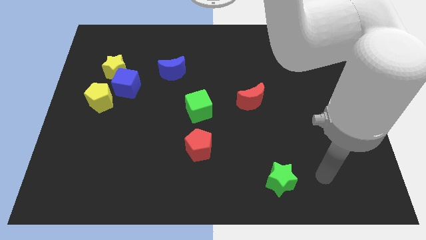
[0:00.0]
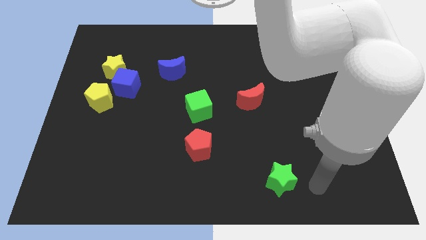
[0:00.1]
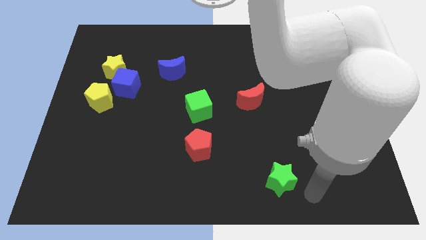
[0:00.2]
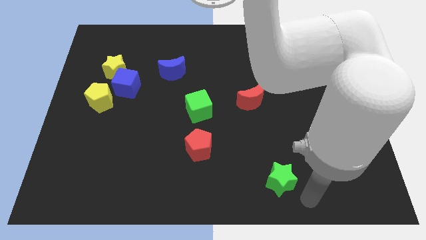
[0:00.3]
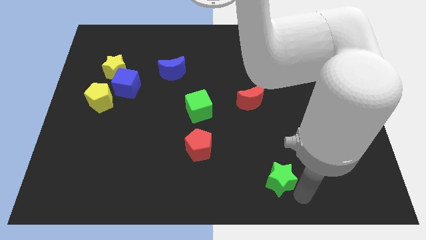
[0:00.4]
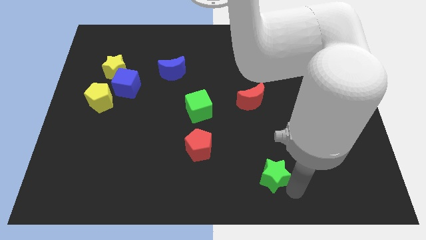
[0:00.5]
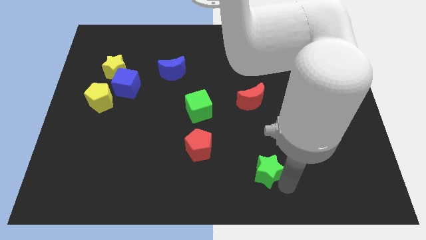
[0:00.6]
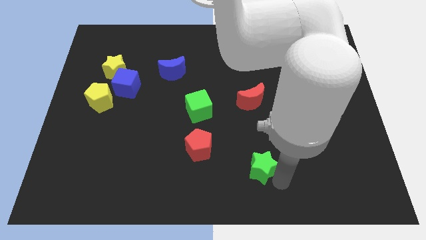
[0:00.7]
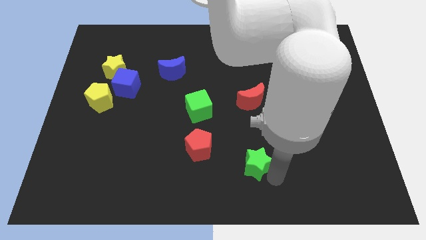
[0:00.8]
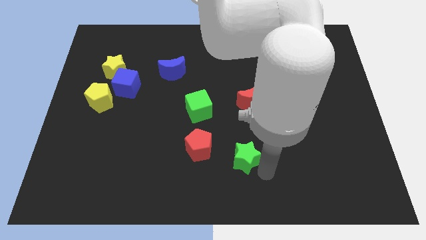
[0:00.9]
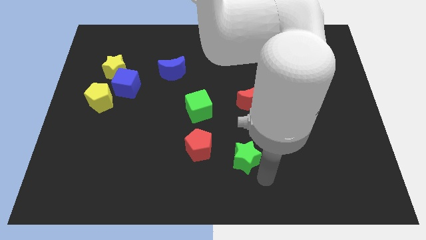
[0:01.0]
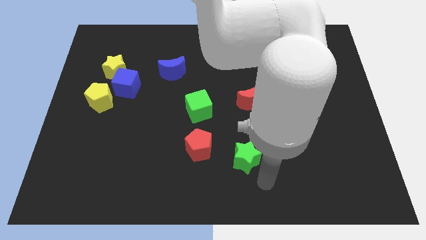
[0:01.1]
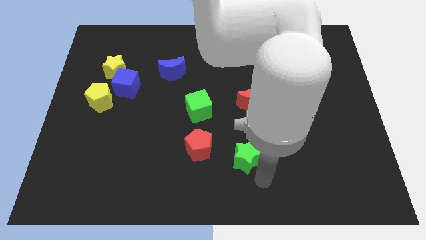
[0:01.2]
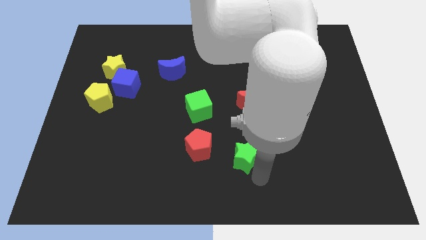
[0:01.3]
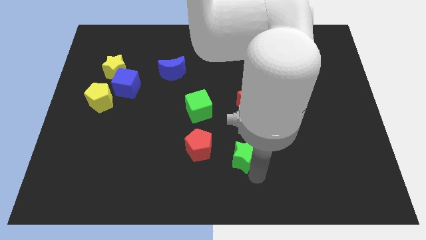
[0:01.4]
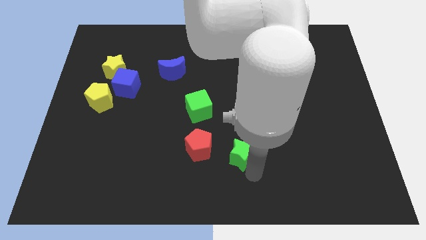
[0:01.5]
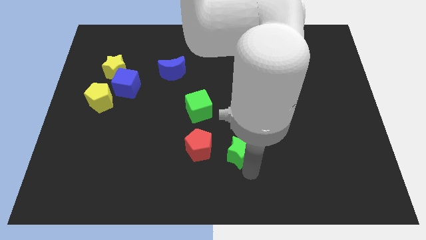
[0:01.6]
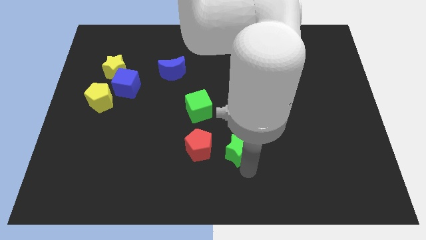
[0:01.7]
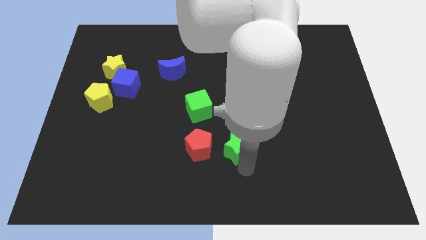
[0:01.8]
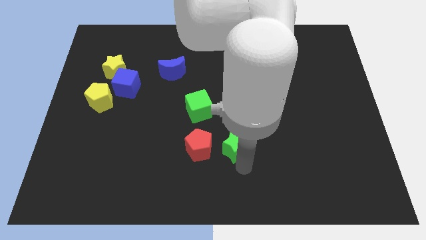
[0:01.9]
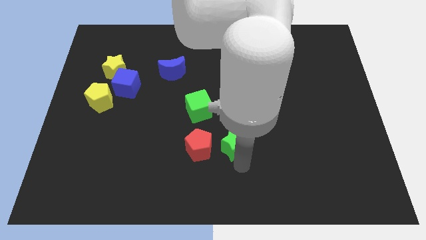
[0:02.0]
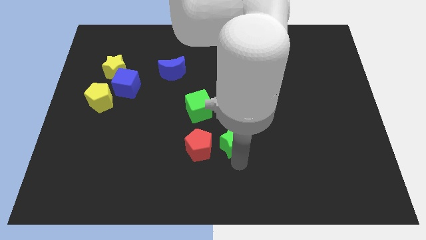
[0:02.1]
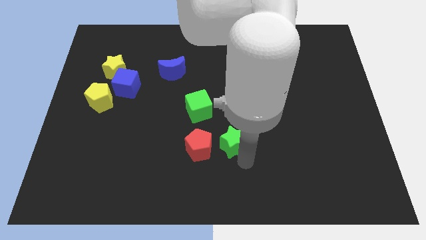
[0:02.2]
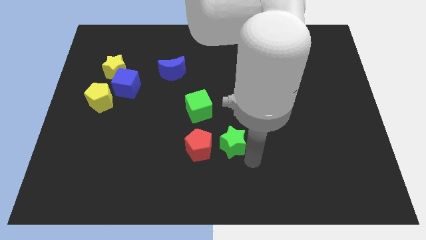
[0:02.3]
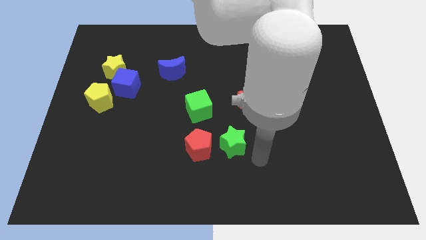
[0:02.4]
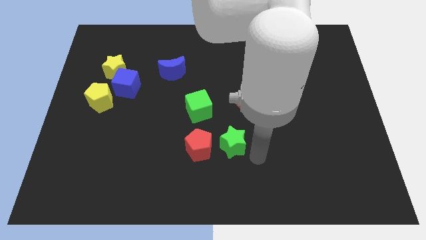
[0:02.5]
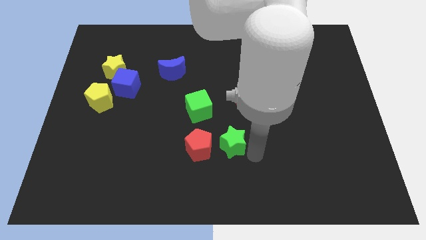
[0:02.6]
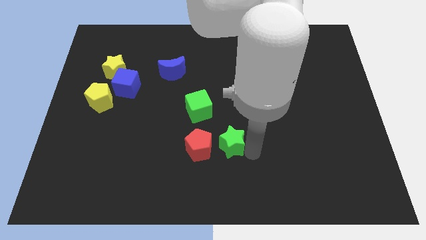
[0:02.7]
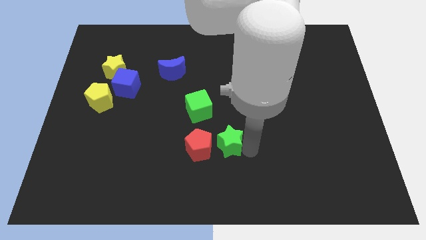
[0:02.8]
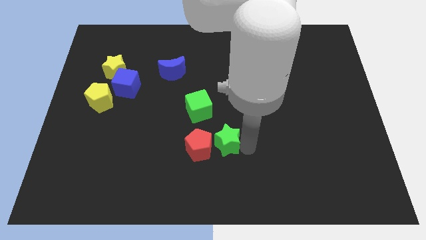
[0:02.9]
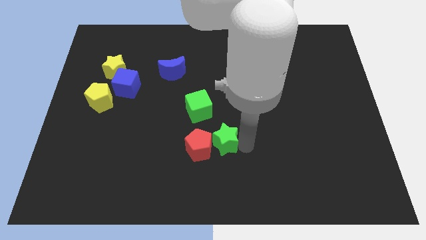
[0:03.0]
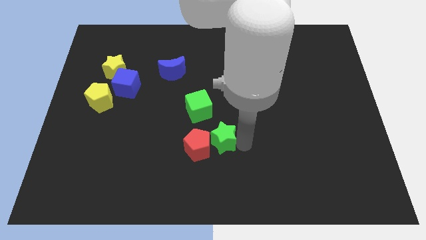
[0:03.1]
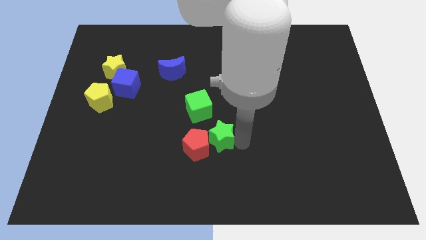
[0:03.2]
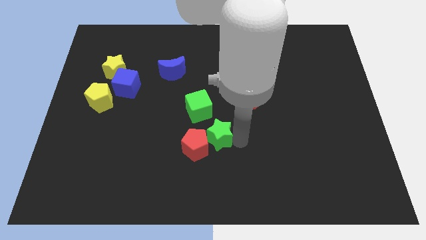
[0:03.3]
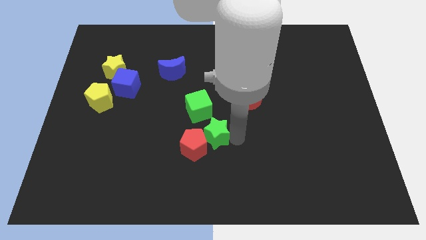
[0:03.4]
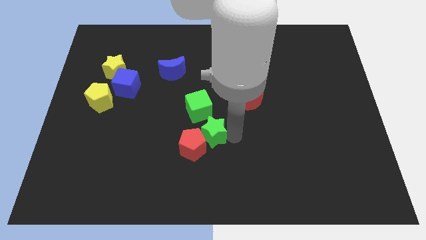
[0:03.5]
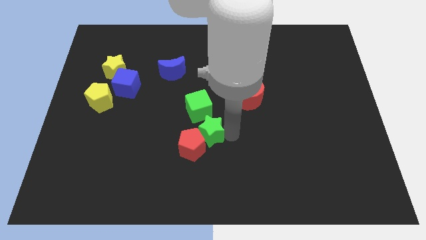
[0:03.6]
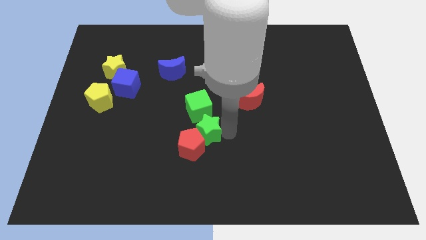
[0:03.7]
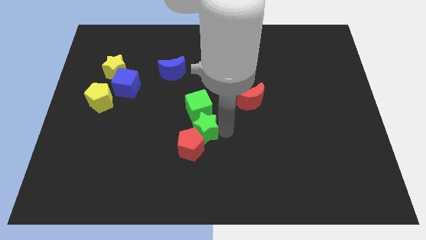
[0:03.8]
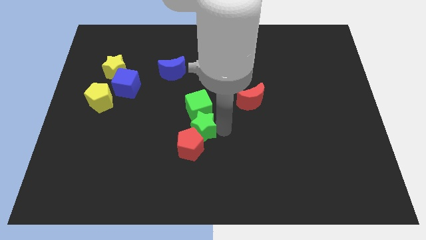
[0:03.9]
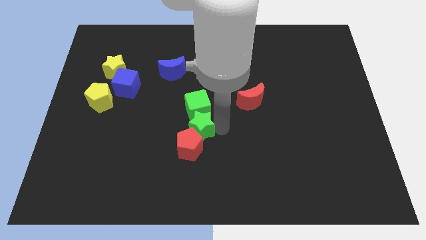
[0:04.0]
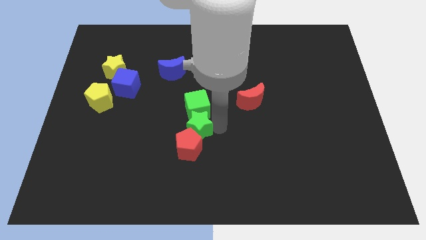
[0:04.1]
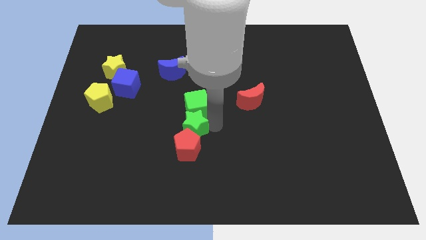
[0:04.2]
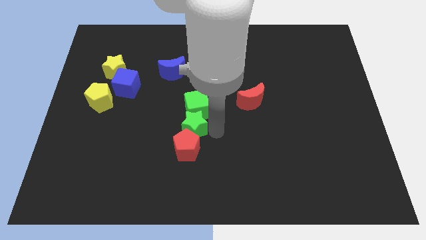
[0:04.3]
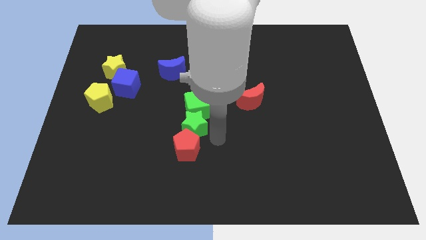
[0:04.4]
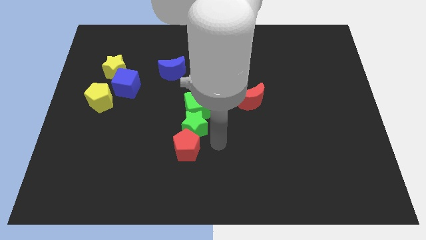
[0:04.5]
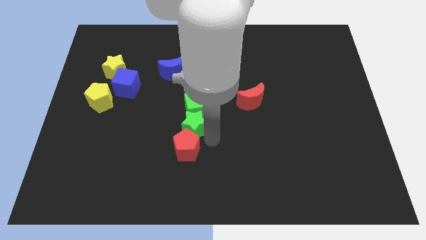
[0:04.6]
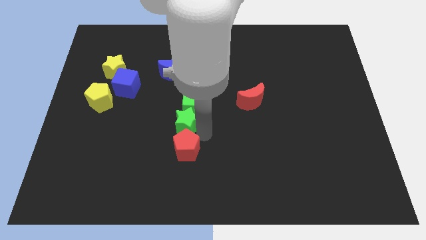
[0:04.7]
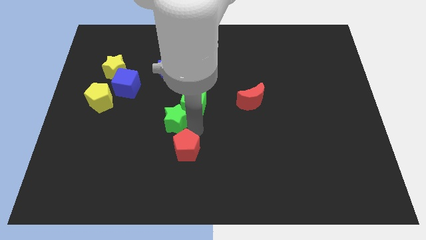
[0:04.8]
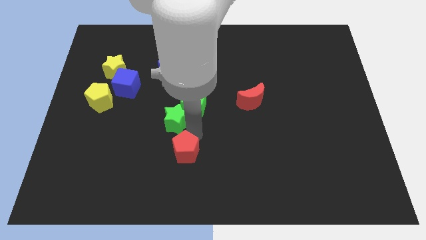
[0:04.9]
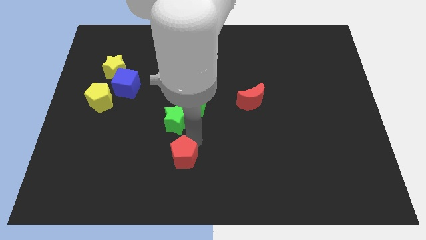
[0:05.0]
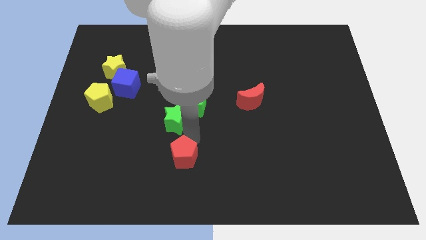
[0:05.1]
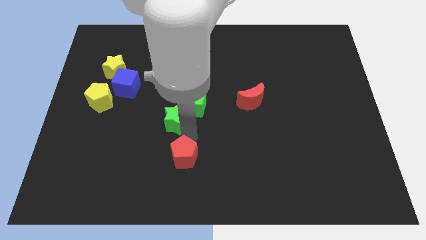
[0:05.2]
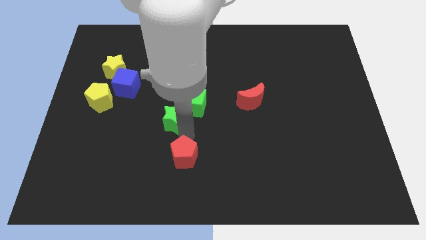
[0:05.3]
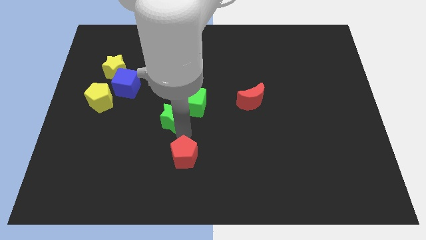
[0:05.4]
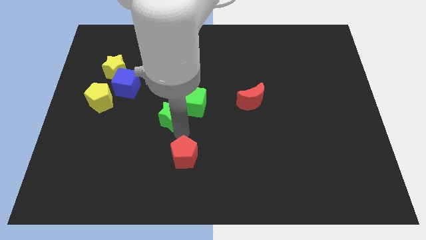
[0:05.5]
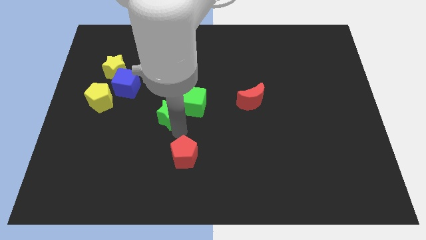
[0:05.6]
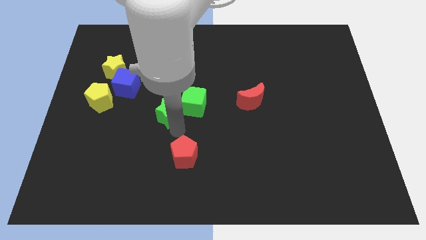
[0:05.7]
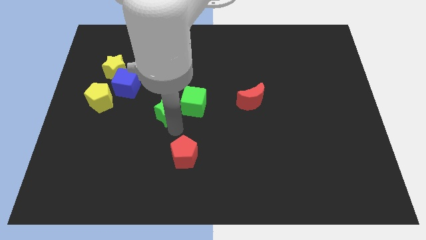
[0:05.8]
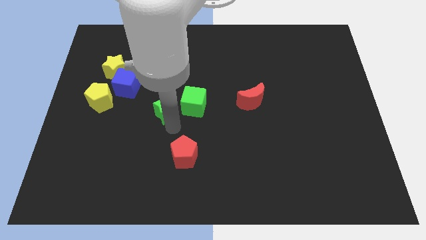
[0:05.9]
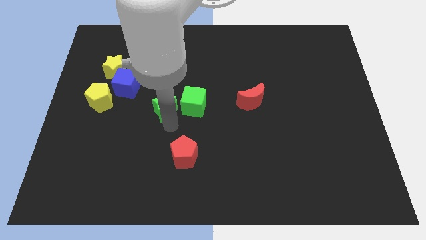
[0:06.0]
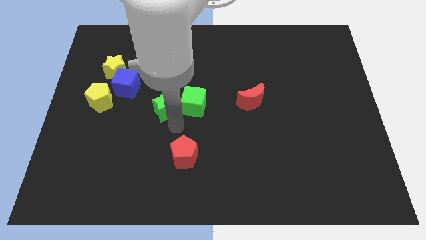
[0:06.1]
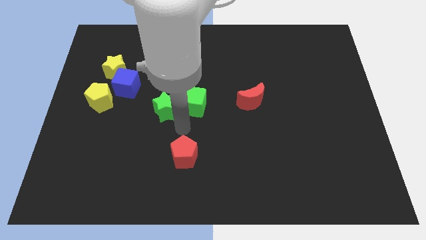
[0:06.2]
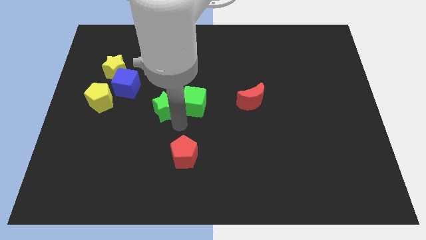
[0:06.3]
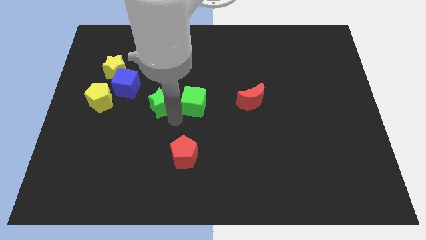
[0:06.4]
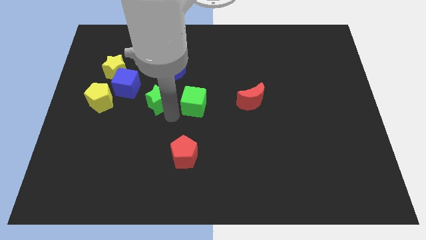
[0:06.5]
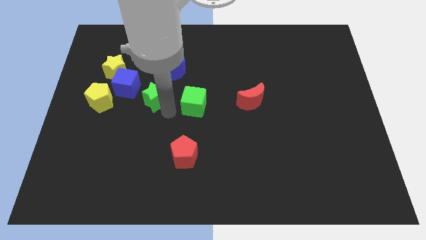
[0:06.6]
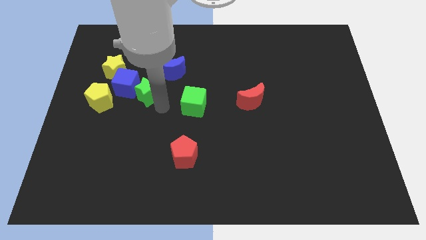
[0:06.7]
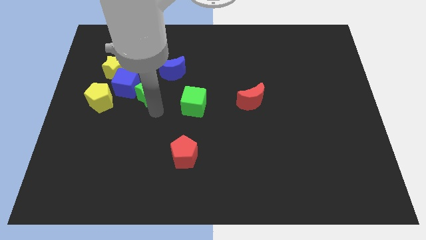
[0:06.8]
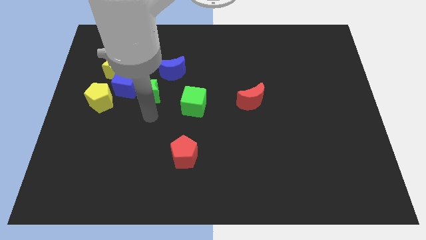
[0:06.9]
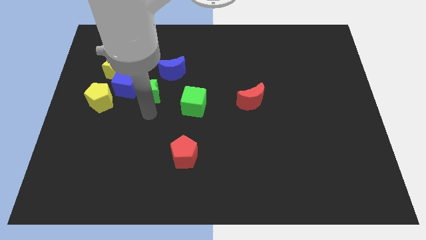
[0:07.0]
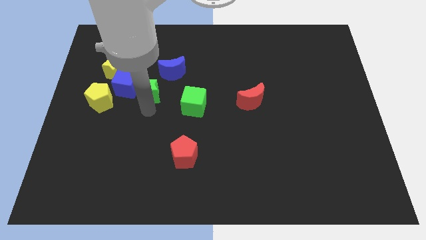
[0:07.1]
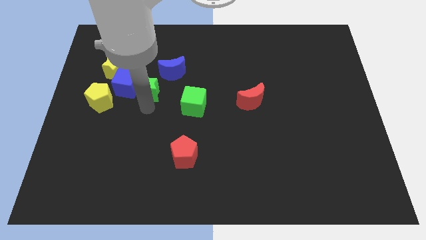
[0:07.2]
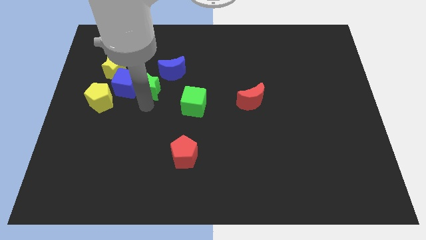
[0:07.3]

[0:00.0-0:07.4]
push the green star to the top right of the blue cube
